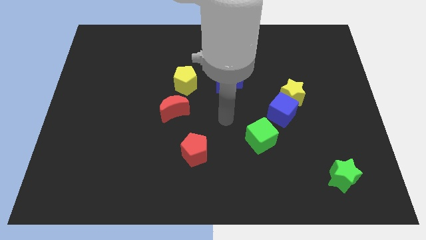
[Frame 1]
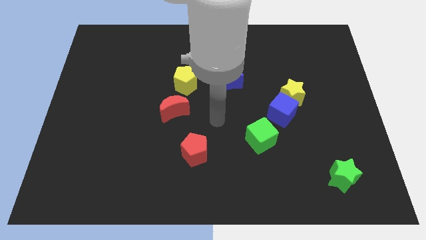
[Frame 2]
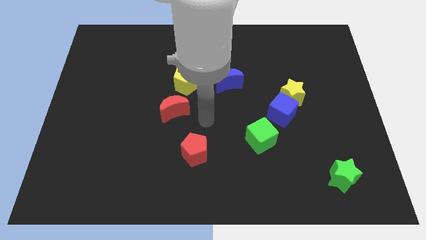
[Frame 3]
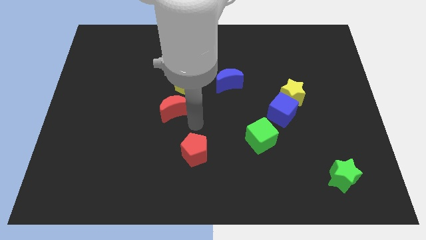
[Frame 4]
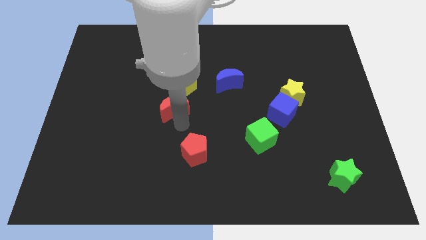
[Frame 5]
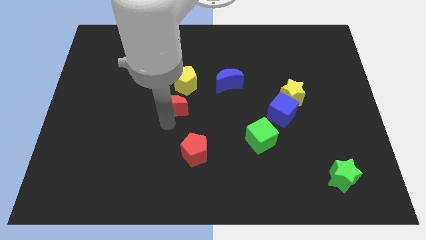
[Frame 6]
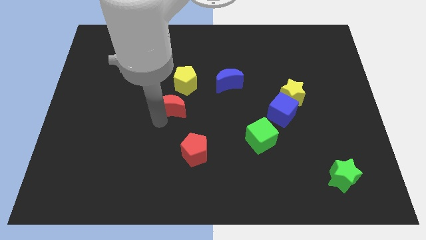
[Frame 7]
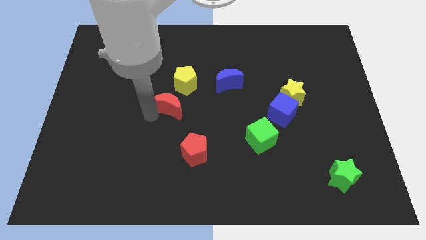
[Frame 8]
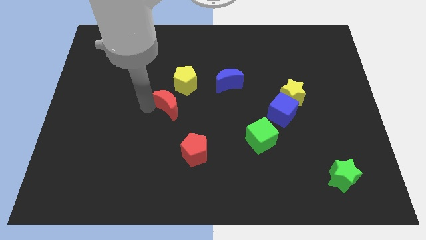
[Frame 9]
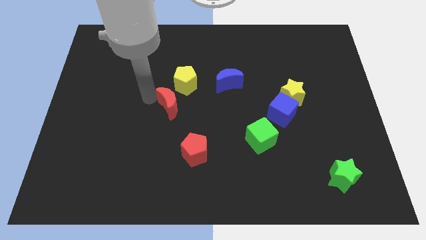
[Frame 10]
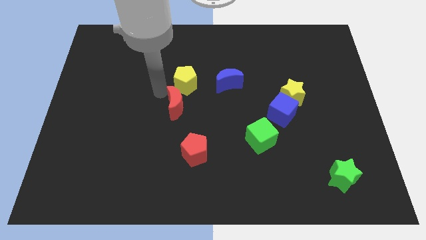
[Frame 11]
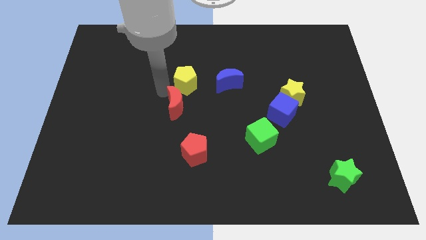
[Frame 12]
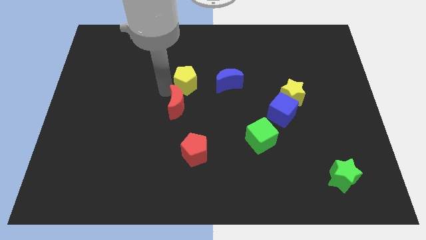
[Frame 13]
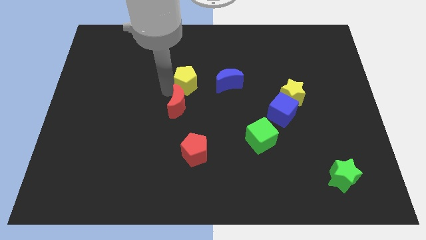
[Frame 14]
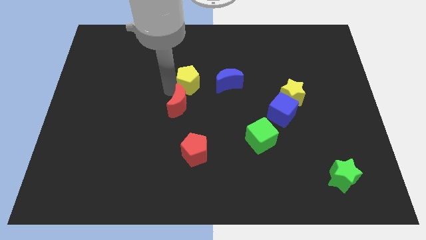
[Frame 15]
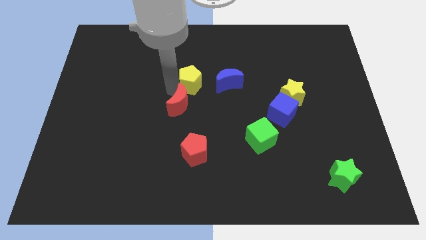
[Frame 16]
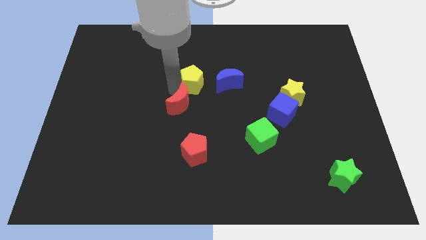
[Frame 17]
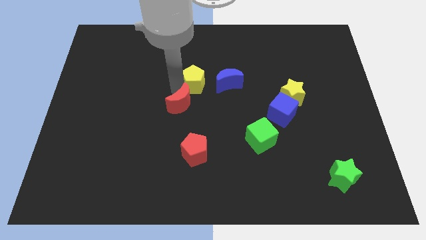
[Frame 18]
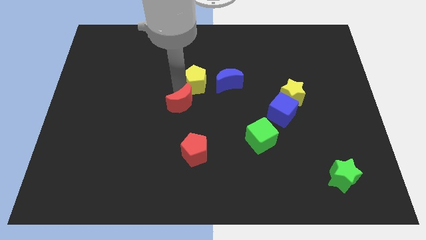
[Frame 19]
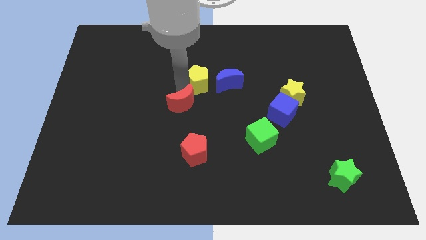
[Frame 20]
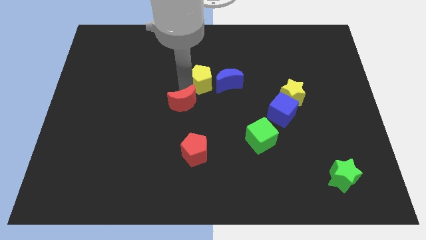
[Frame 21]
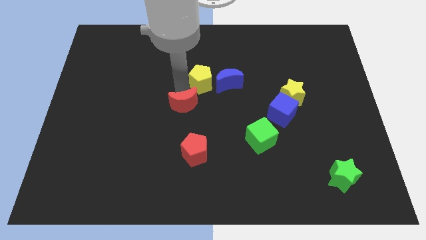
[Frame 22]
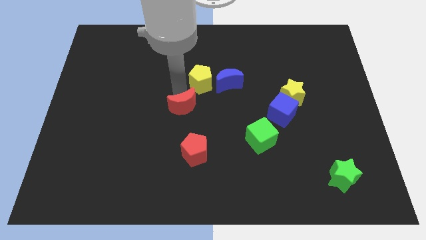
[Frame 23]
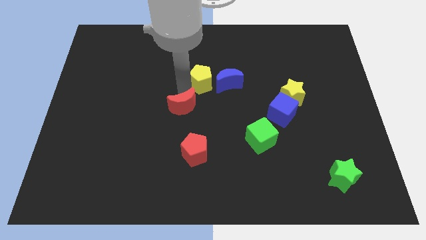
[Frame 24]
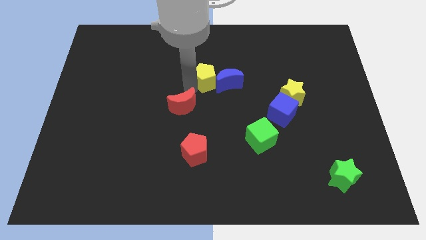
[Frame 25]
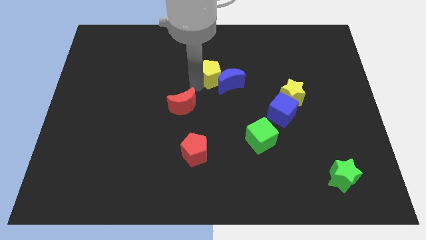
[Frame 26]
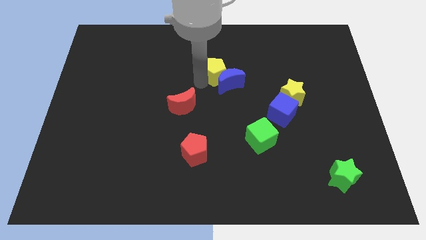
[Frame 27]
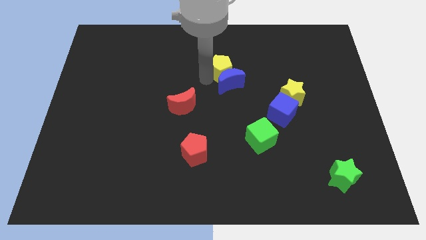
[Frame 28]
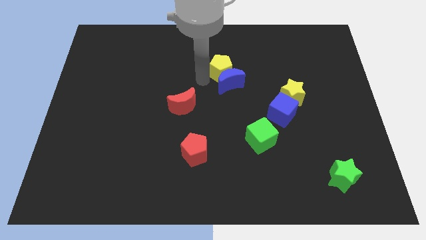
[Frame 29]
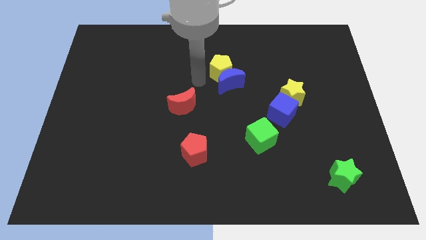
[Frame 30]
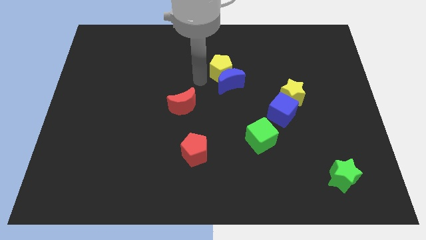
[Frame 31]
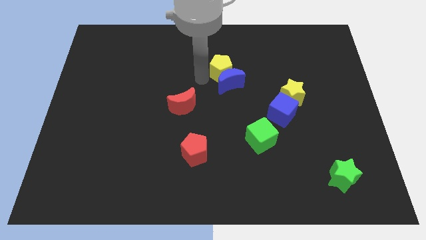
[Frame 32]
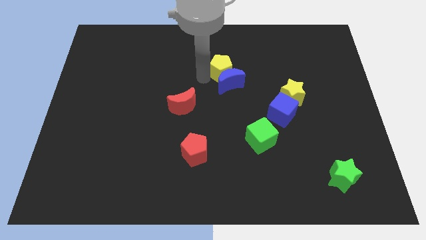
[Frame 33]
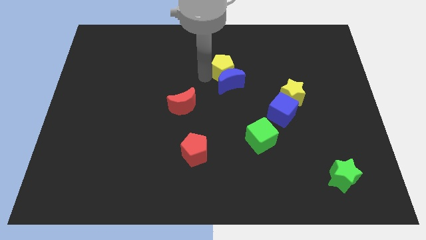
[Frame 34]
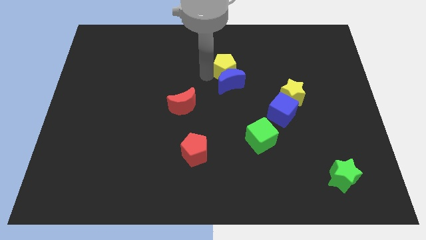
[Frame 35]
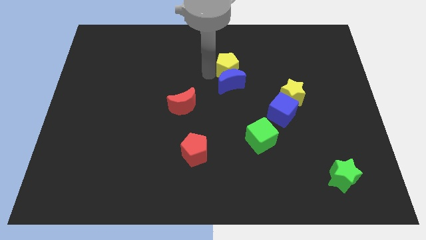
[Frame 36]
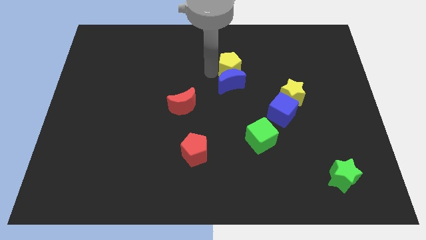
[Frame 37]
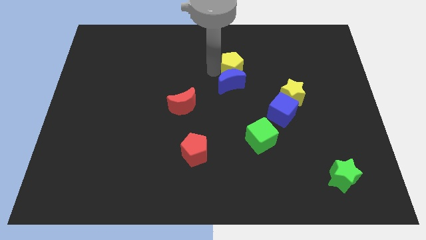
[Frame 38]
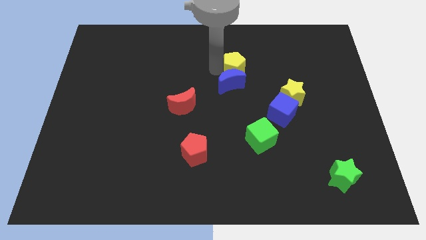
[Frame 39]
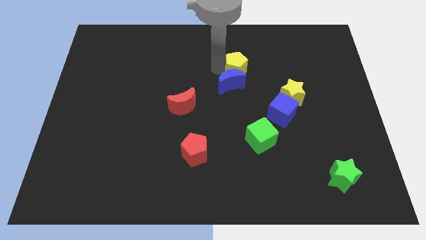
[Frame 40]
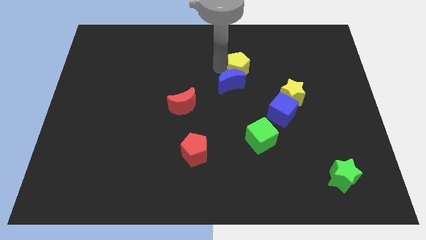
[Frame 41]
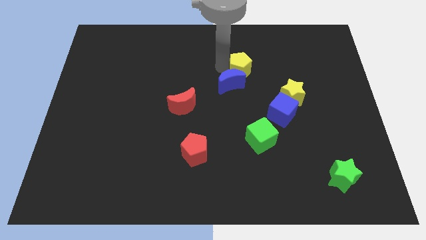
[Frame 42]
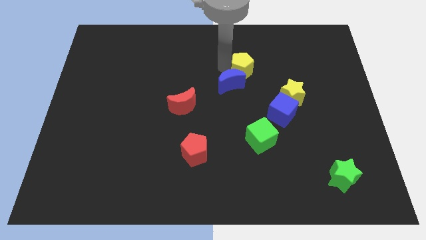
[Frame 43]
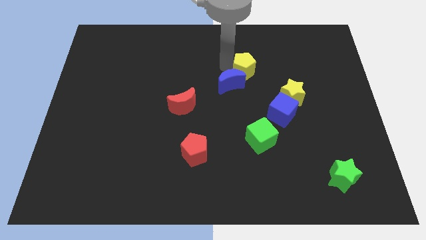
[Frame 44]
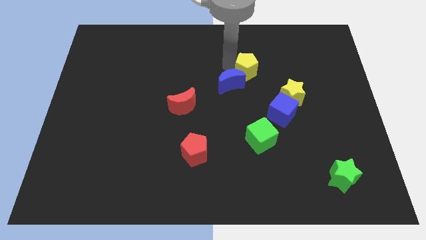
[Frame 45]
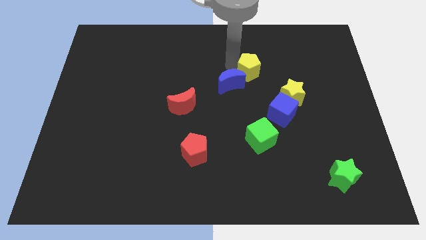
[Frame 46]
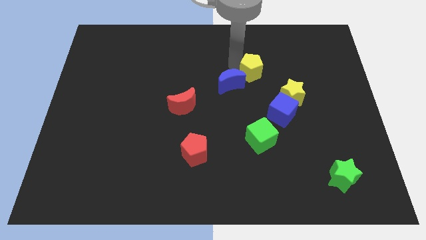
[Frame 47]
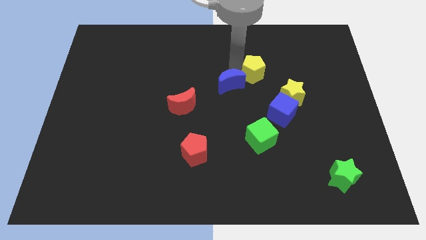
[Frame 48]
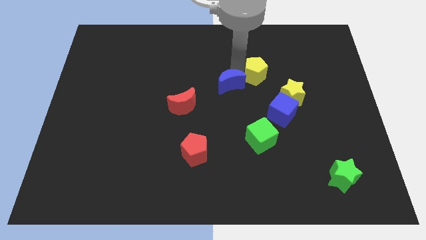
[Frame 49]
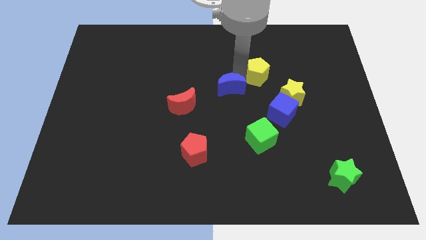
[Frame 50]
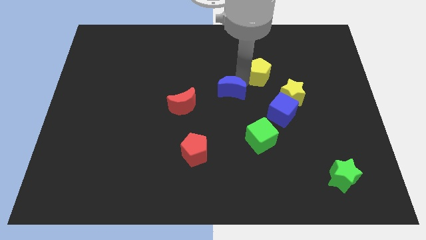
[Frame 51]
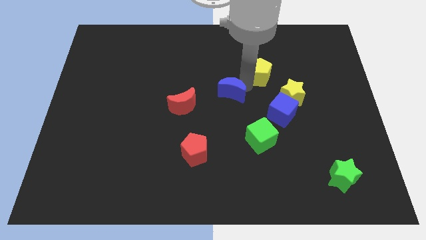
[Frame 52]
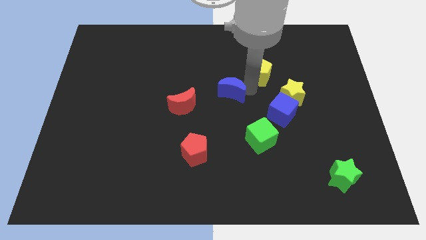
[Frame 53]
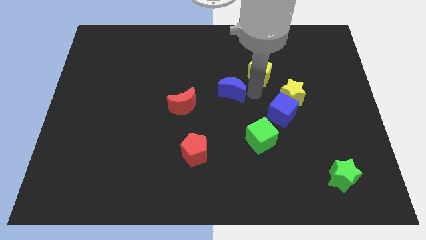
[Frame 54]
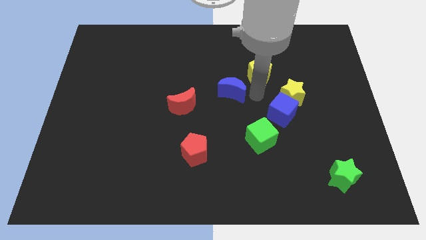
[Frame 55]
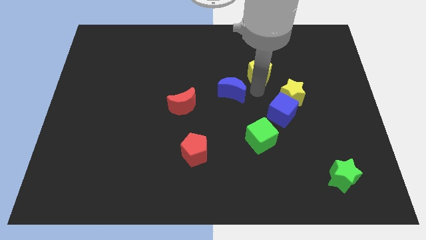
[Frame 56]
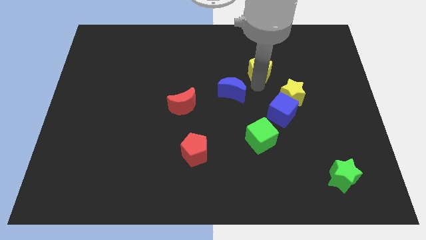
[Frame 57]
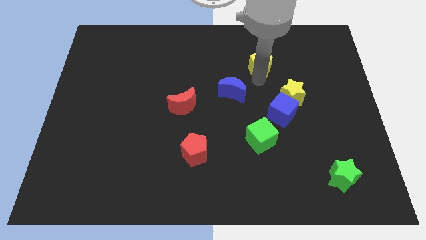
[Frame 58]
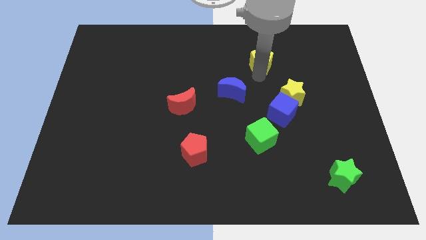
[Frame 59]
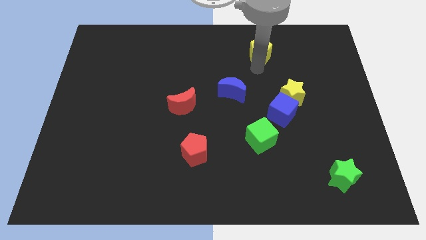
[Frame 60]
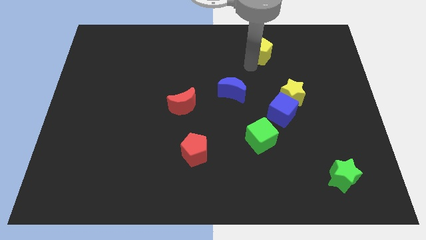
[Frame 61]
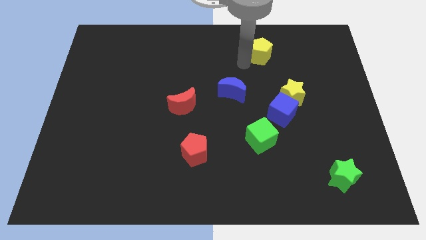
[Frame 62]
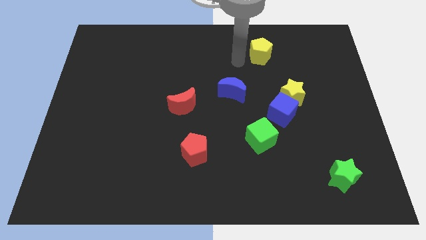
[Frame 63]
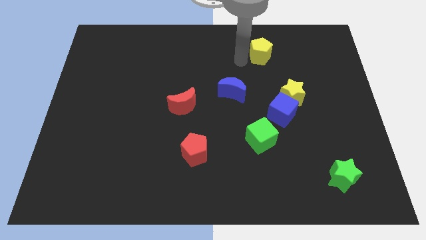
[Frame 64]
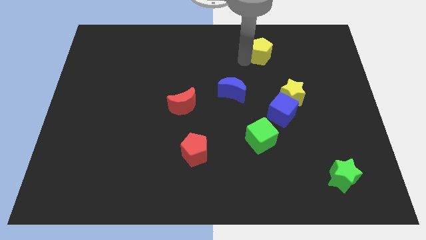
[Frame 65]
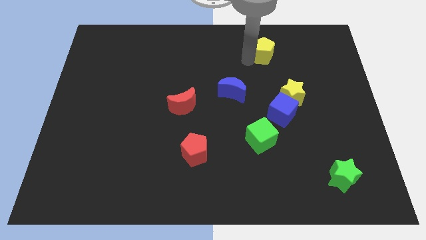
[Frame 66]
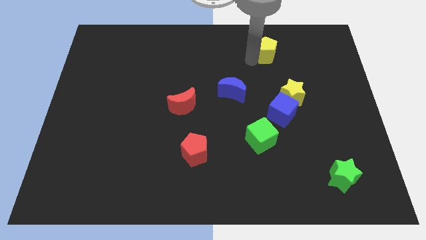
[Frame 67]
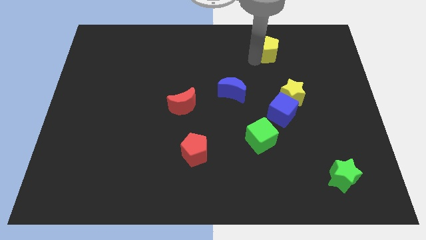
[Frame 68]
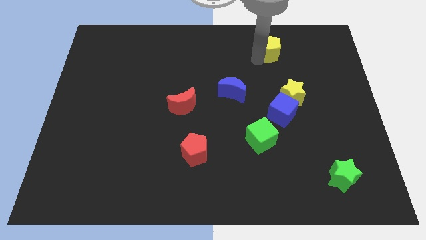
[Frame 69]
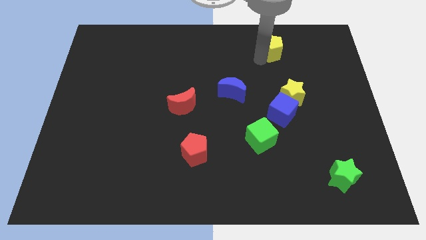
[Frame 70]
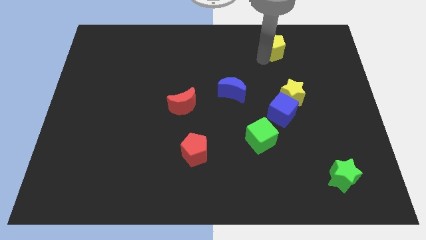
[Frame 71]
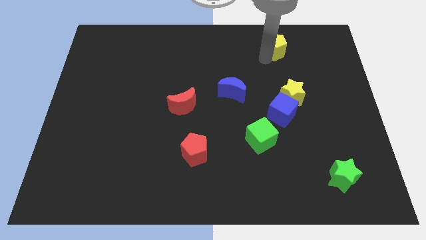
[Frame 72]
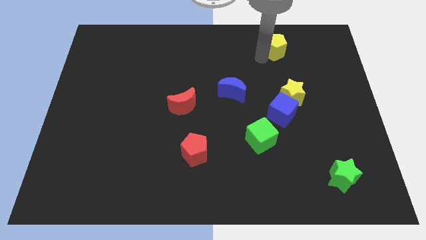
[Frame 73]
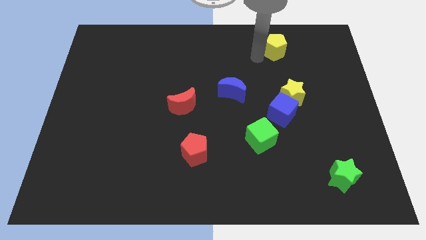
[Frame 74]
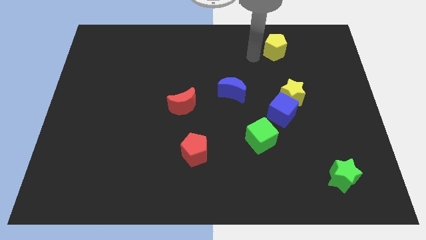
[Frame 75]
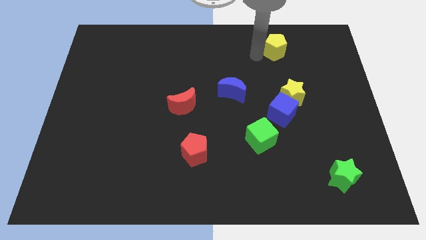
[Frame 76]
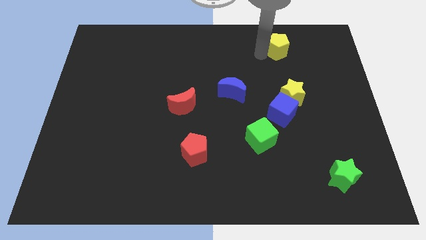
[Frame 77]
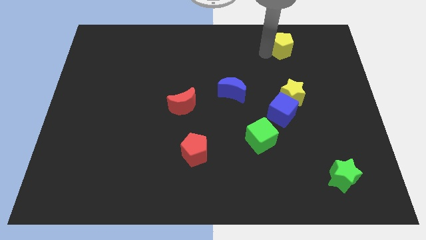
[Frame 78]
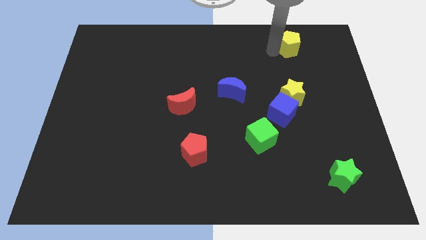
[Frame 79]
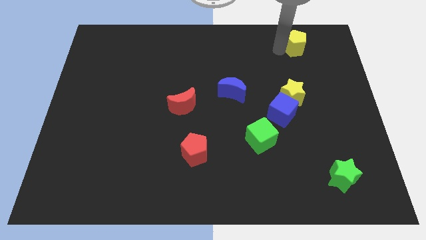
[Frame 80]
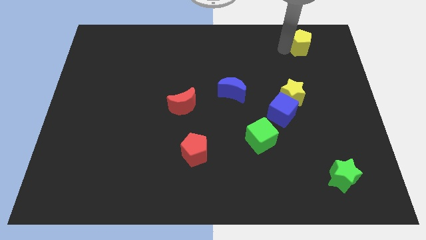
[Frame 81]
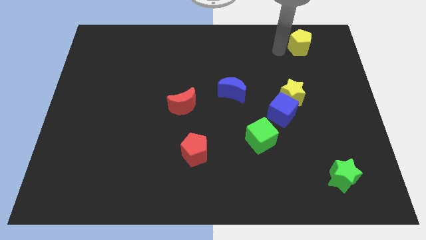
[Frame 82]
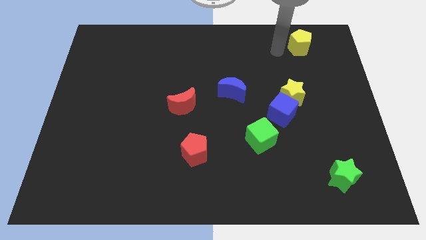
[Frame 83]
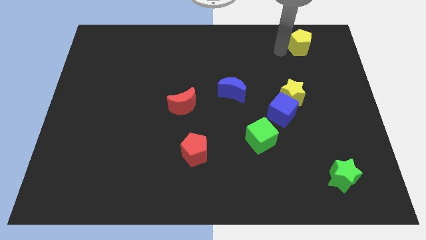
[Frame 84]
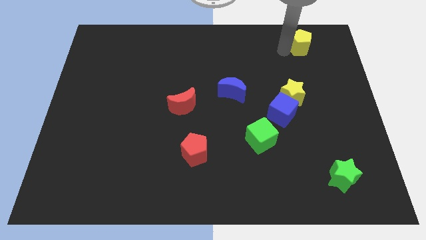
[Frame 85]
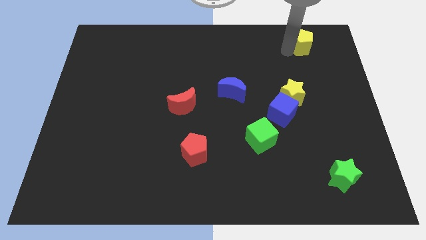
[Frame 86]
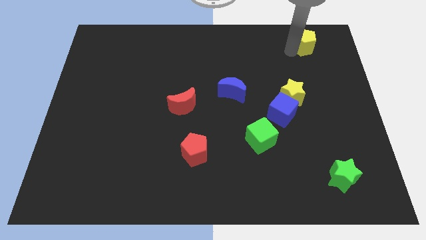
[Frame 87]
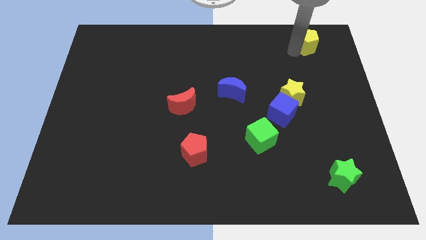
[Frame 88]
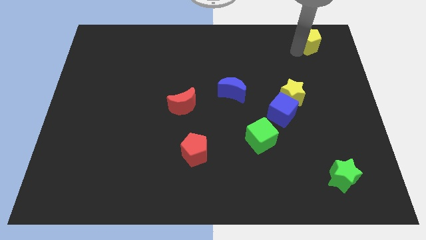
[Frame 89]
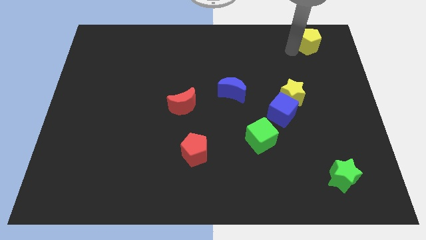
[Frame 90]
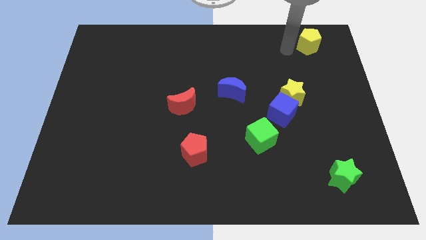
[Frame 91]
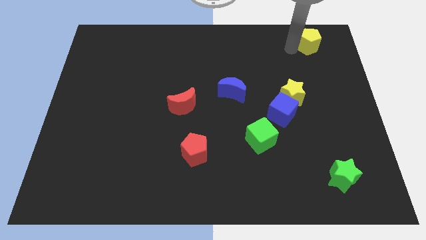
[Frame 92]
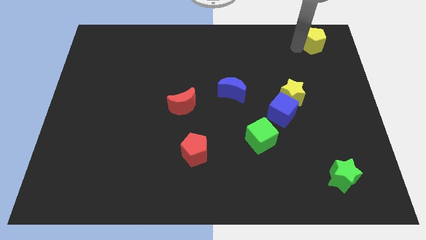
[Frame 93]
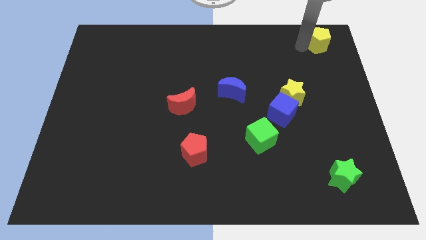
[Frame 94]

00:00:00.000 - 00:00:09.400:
put the yellow pentagon to the top right corner
